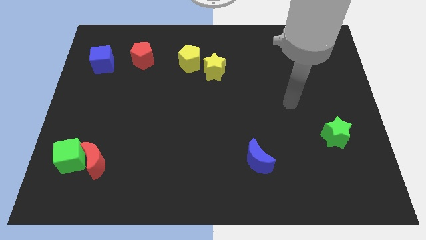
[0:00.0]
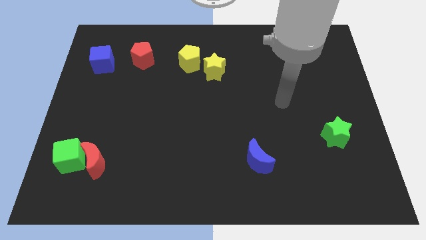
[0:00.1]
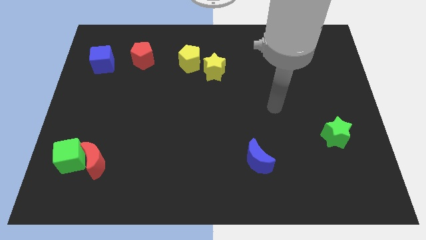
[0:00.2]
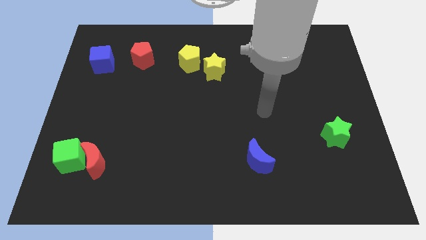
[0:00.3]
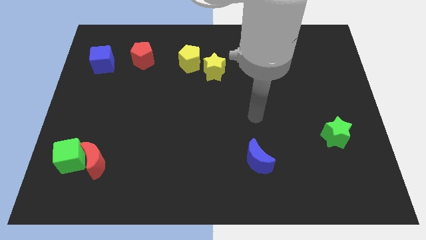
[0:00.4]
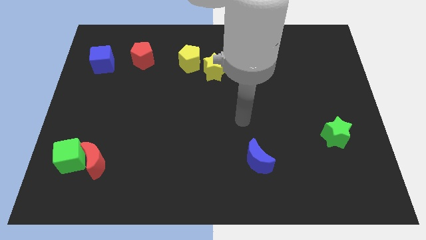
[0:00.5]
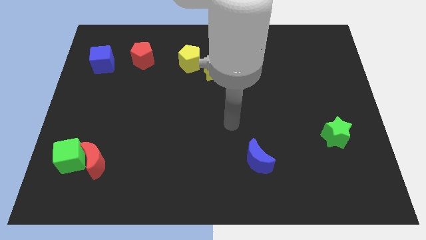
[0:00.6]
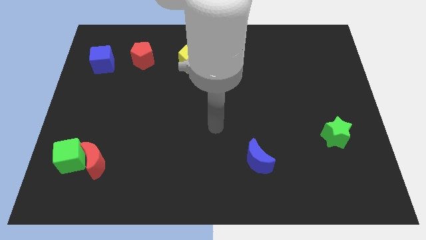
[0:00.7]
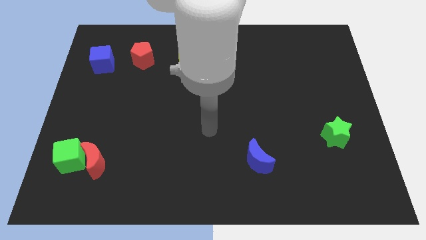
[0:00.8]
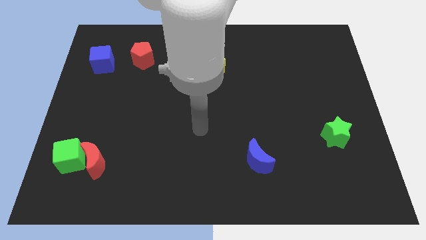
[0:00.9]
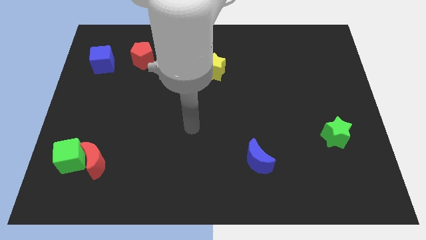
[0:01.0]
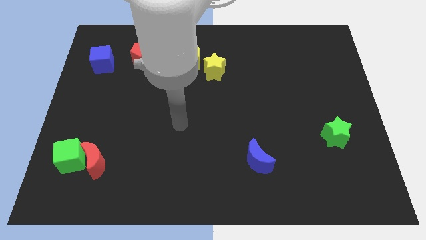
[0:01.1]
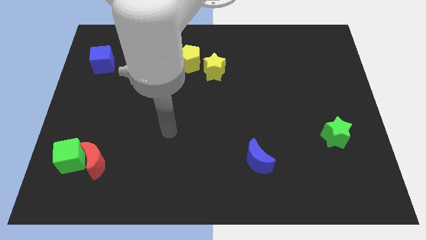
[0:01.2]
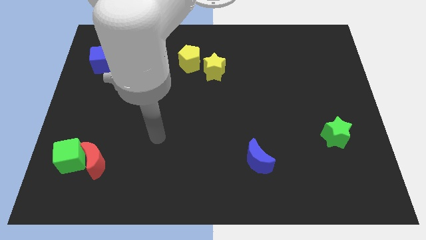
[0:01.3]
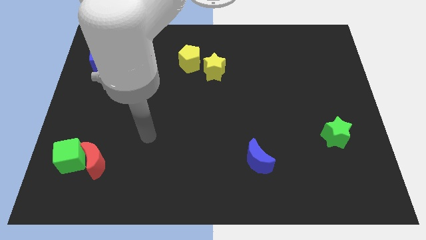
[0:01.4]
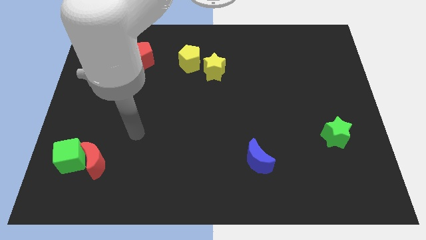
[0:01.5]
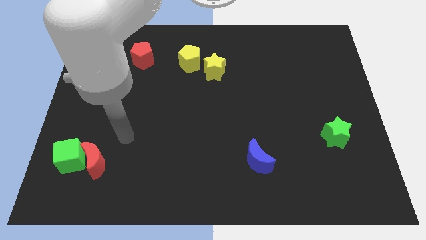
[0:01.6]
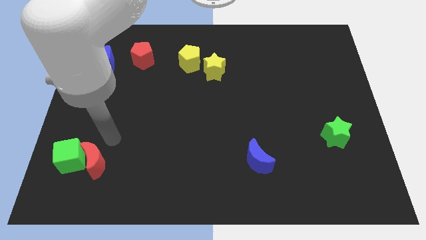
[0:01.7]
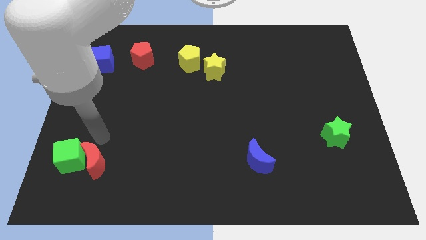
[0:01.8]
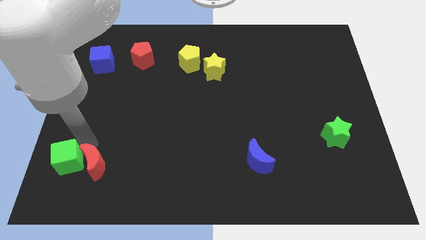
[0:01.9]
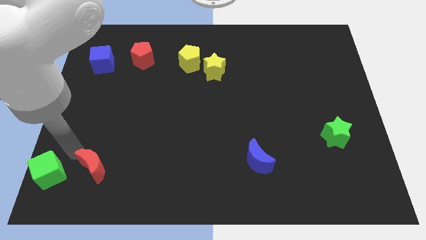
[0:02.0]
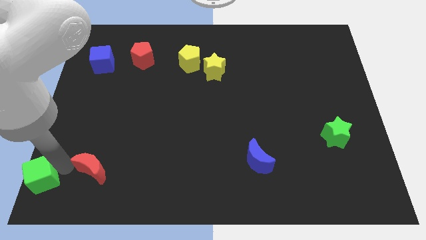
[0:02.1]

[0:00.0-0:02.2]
move the red moon away from the green cube

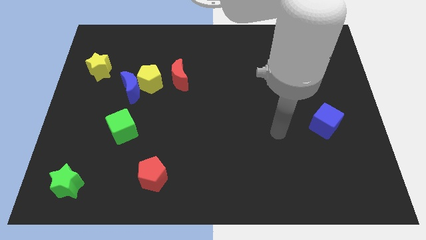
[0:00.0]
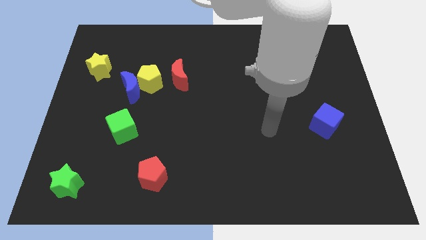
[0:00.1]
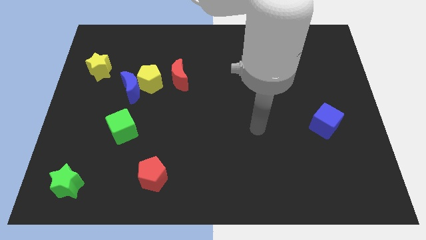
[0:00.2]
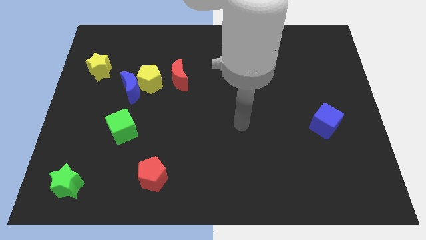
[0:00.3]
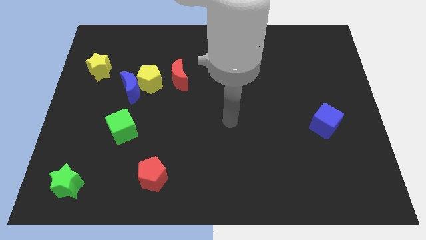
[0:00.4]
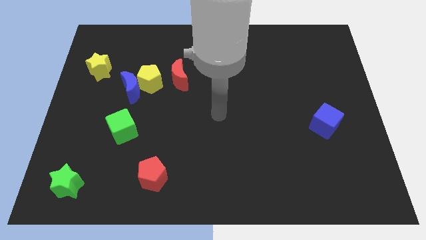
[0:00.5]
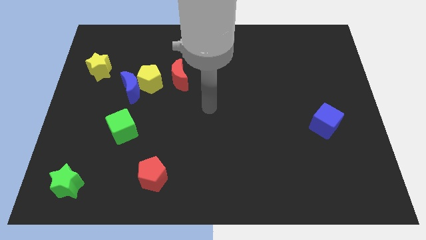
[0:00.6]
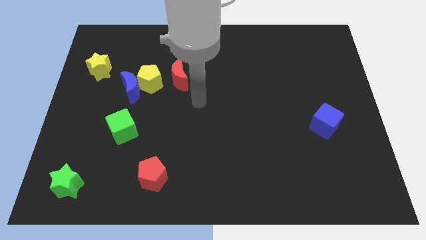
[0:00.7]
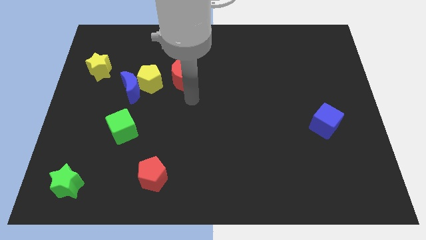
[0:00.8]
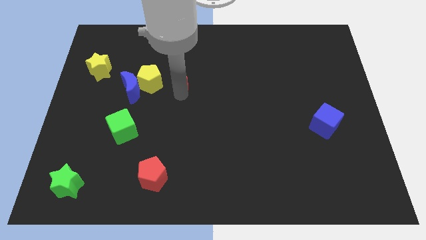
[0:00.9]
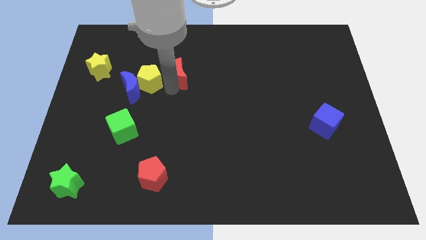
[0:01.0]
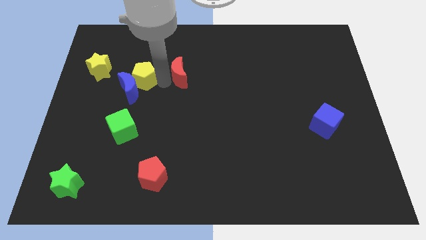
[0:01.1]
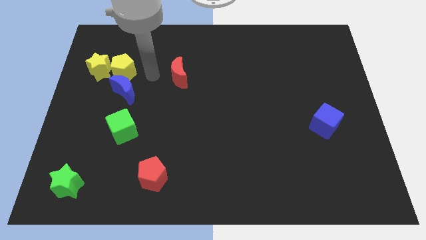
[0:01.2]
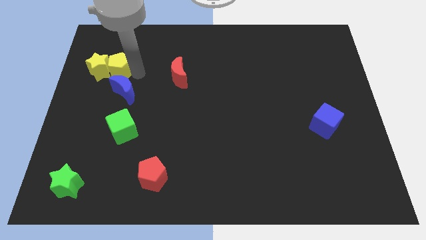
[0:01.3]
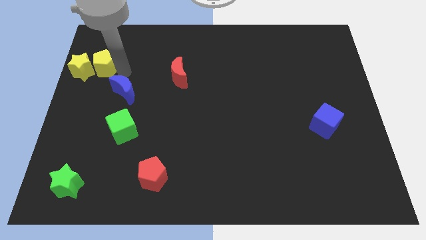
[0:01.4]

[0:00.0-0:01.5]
separate the blue moon from the yellow pentagon

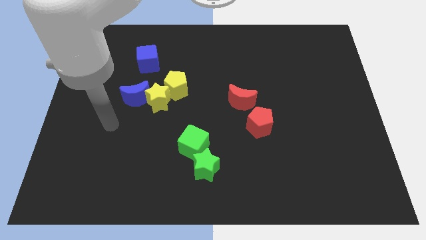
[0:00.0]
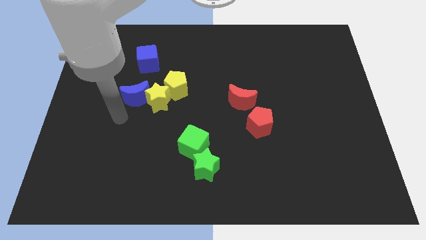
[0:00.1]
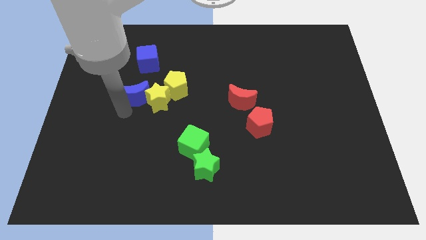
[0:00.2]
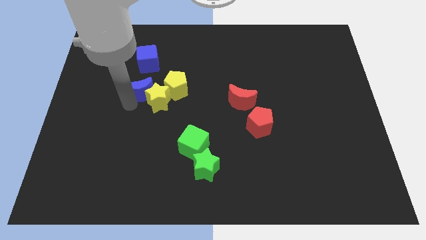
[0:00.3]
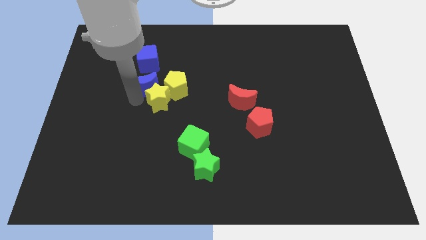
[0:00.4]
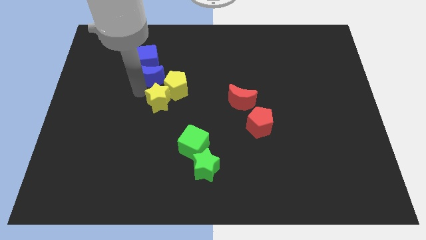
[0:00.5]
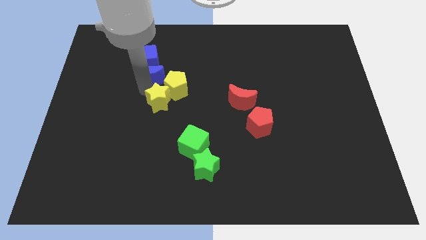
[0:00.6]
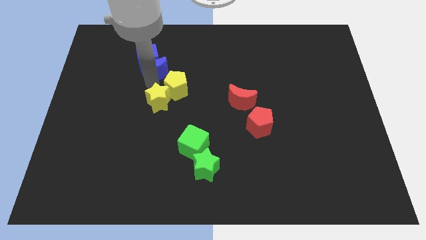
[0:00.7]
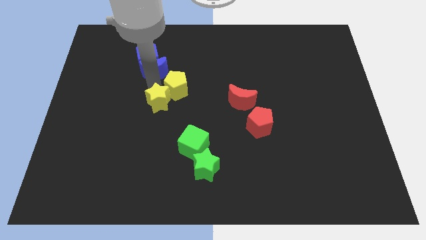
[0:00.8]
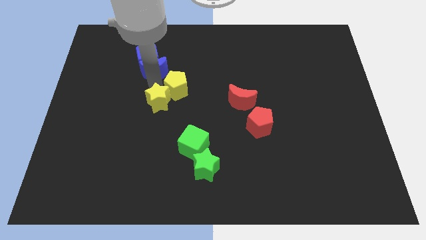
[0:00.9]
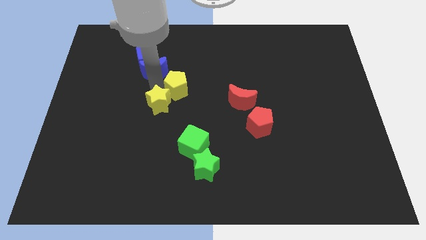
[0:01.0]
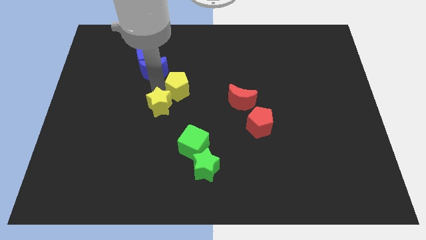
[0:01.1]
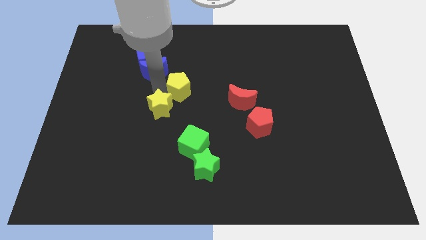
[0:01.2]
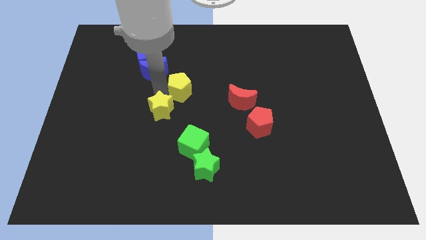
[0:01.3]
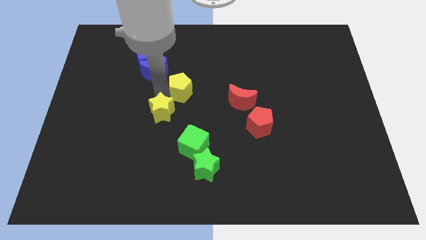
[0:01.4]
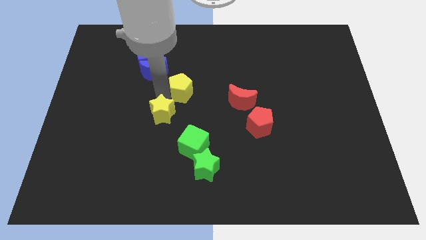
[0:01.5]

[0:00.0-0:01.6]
move the yellow star away from the blue moon and yellow pentagon

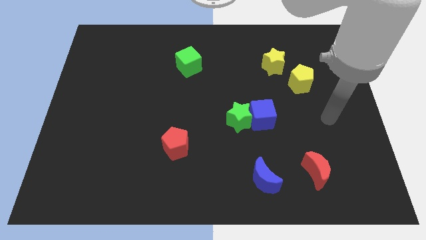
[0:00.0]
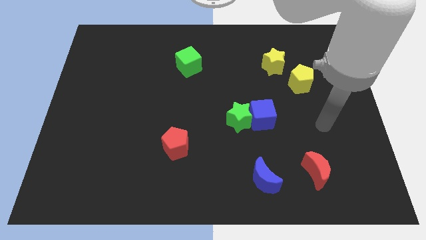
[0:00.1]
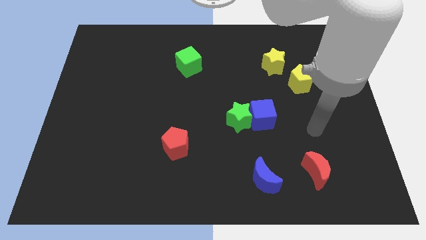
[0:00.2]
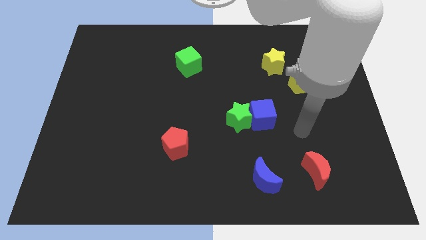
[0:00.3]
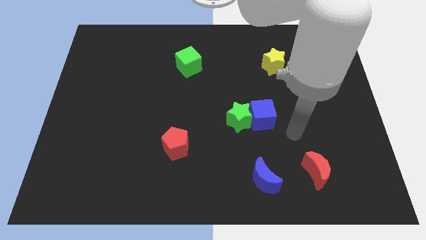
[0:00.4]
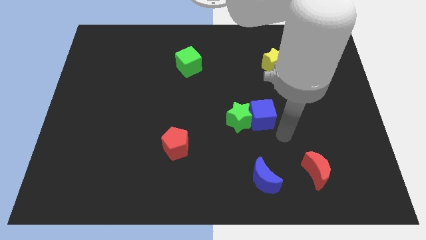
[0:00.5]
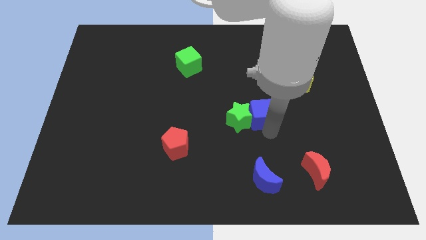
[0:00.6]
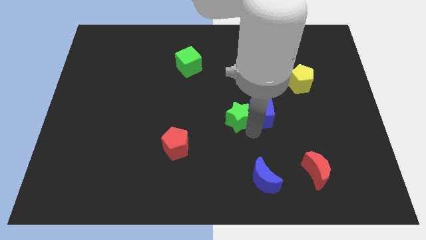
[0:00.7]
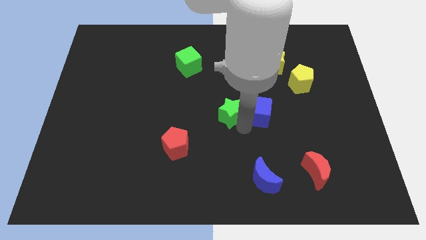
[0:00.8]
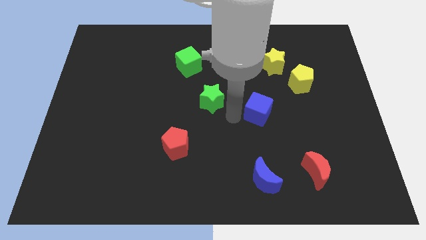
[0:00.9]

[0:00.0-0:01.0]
separate the blue cube from the green star

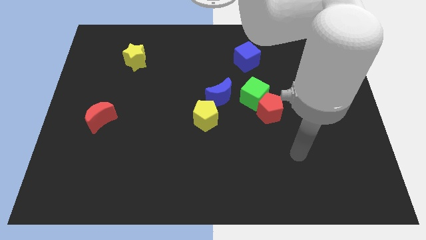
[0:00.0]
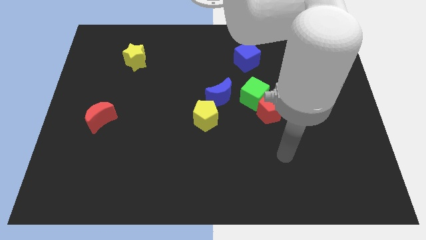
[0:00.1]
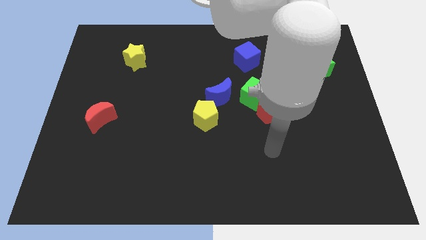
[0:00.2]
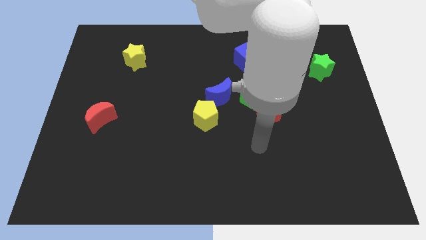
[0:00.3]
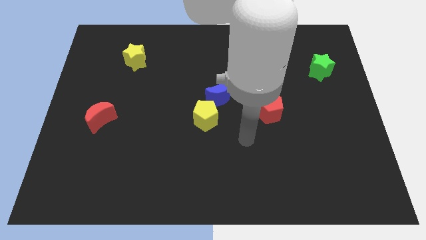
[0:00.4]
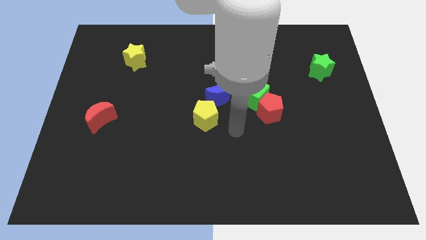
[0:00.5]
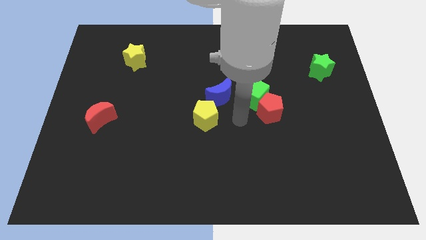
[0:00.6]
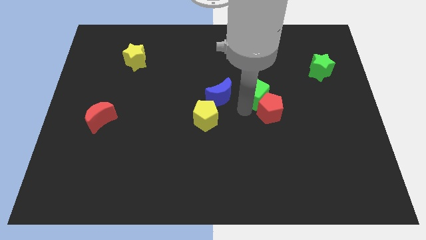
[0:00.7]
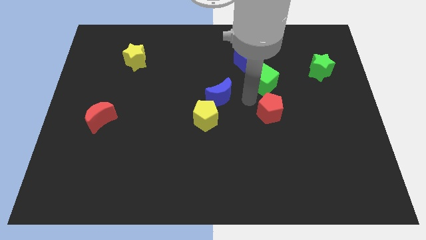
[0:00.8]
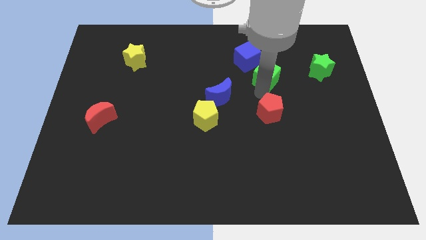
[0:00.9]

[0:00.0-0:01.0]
move the red pentagon away from the green cube

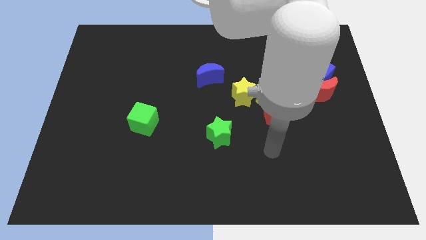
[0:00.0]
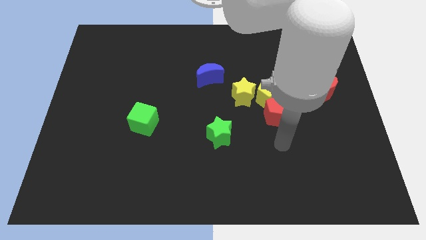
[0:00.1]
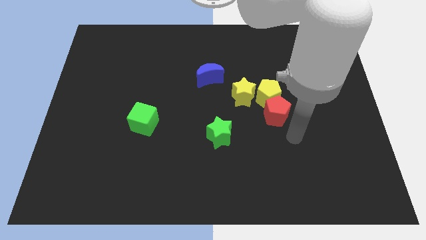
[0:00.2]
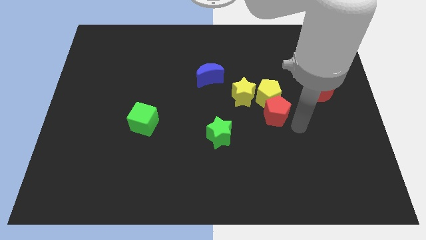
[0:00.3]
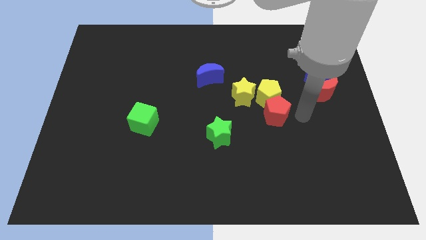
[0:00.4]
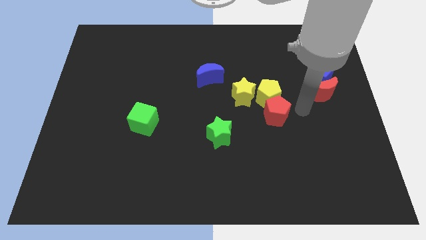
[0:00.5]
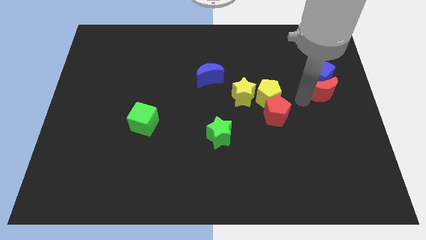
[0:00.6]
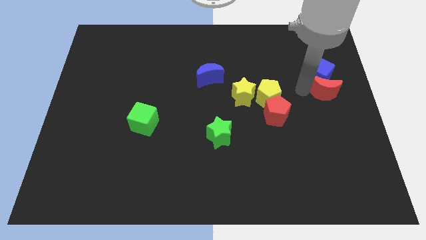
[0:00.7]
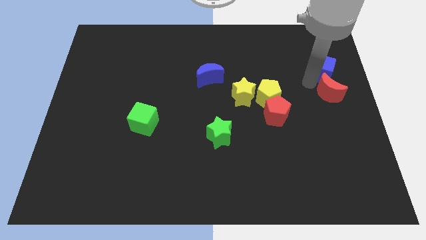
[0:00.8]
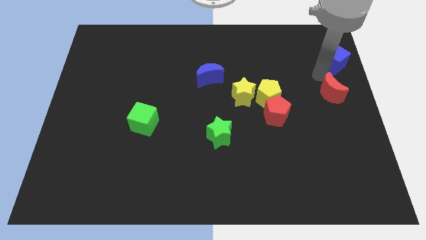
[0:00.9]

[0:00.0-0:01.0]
pull the red moon apart from the blue cube

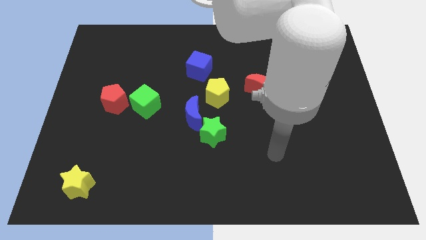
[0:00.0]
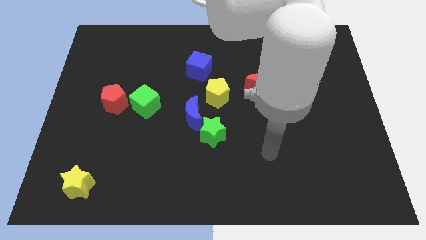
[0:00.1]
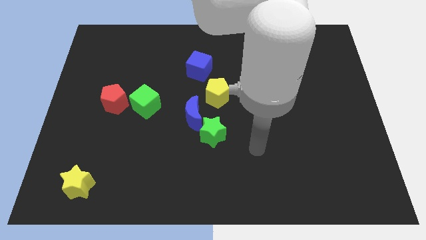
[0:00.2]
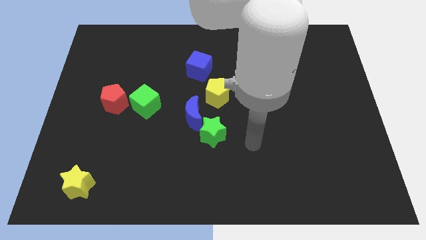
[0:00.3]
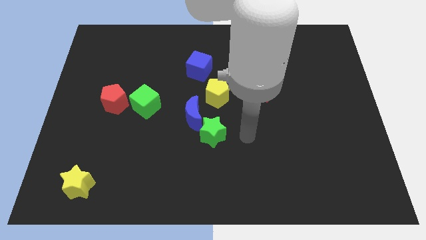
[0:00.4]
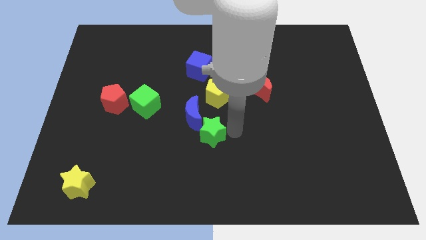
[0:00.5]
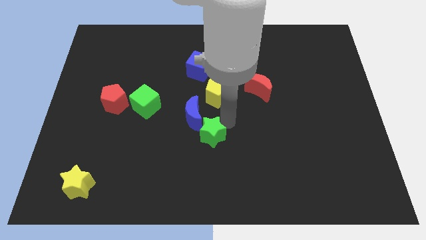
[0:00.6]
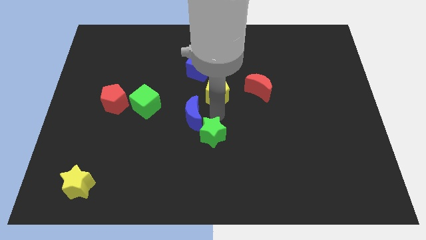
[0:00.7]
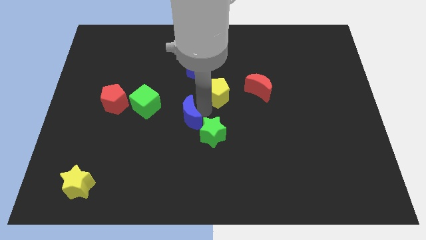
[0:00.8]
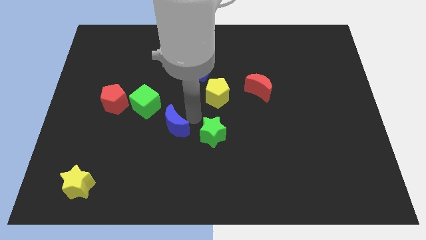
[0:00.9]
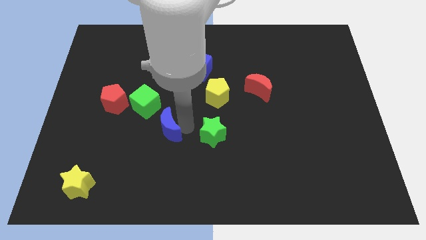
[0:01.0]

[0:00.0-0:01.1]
move the green star away from the blue moon
